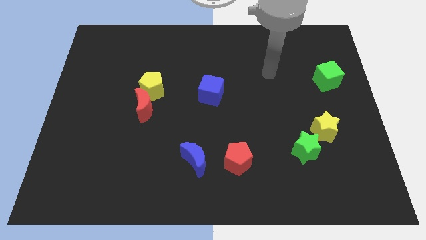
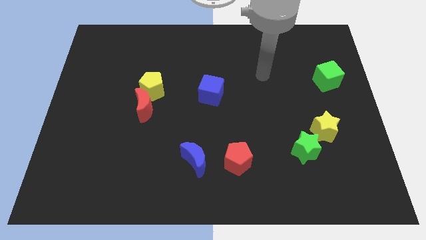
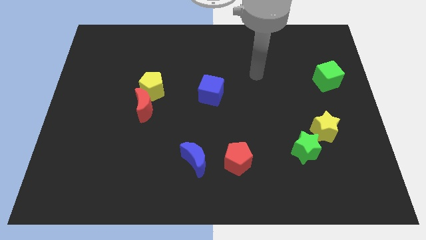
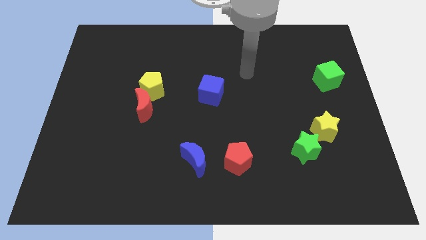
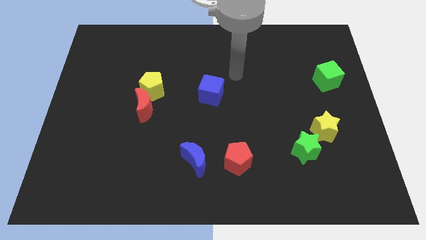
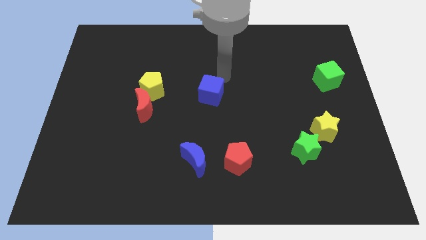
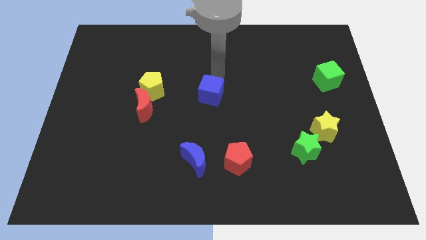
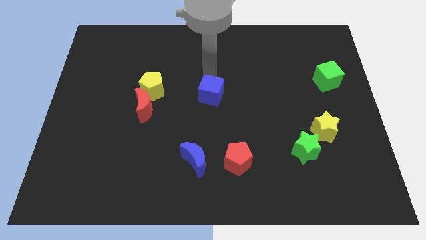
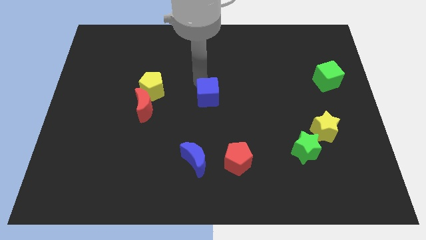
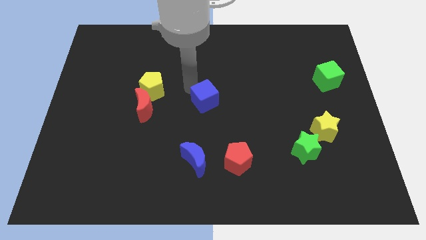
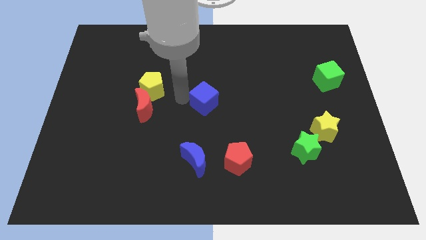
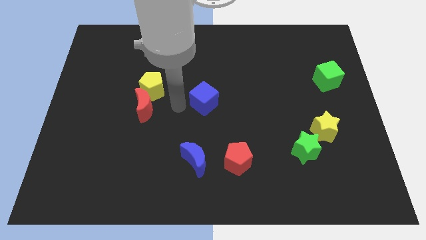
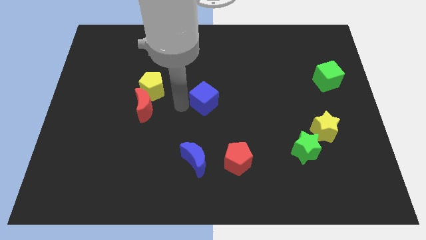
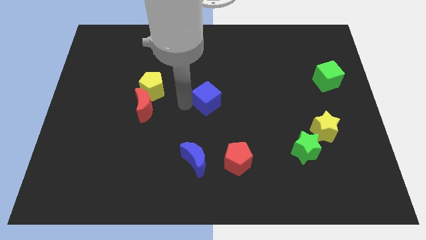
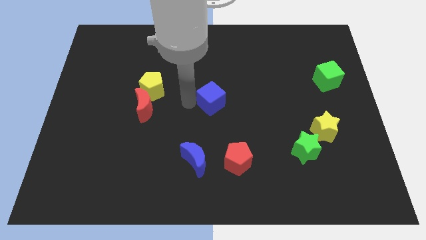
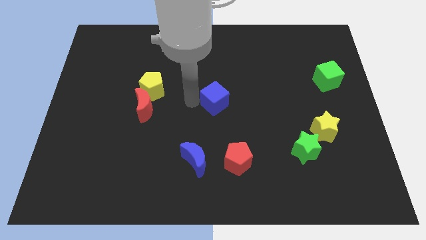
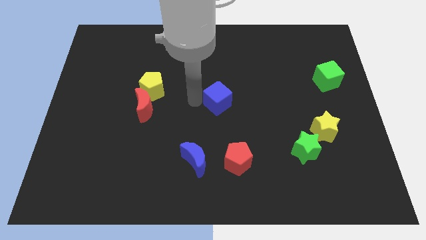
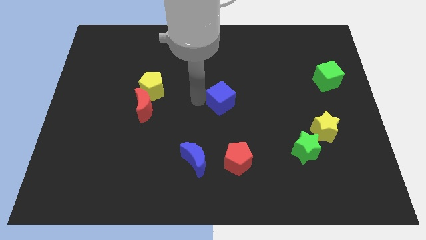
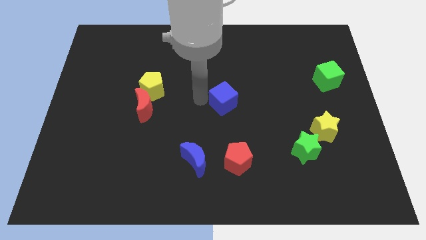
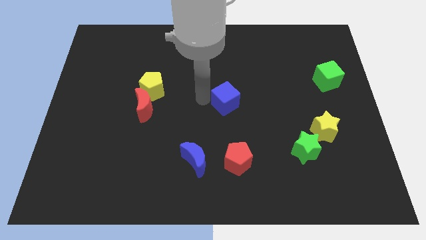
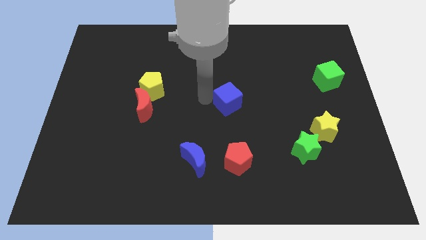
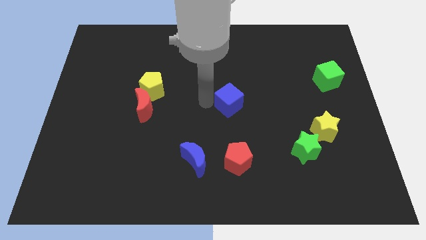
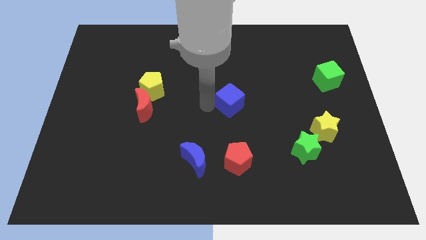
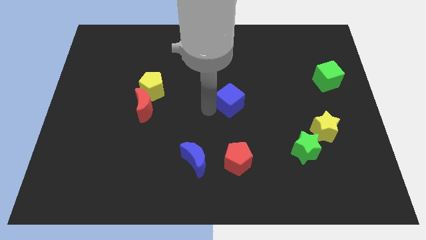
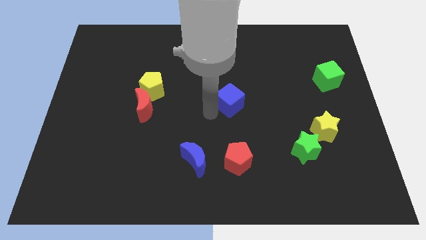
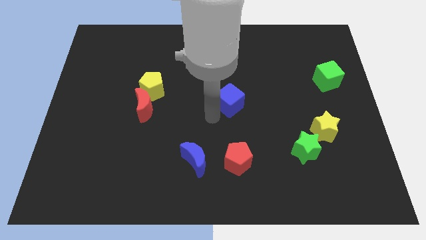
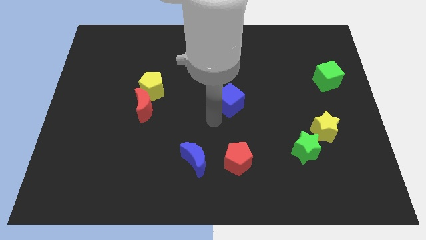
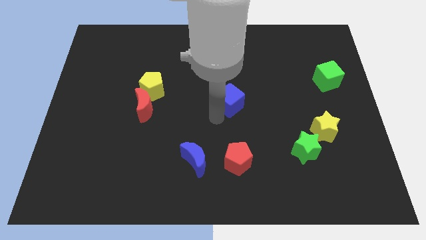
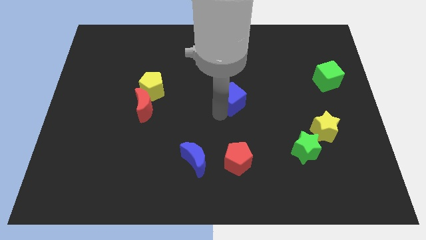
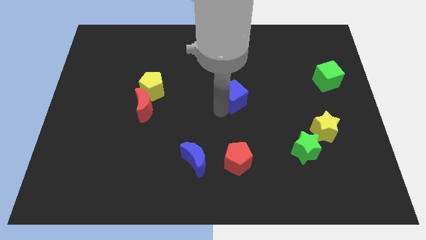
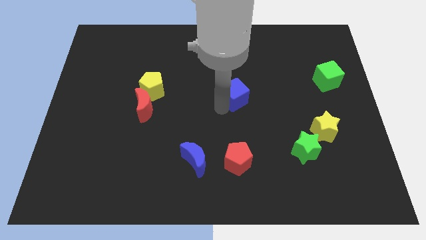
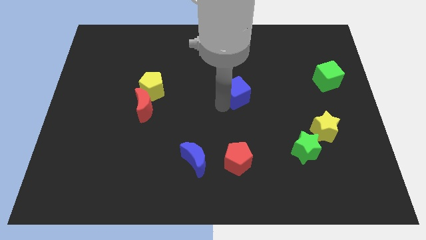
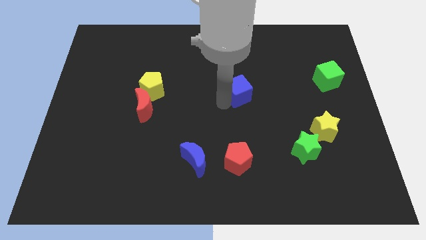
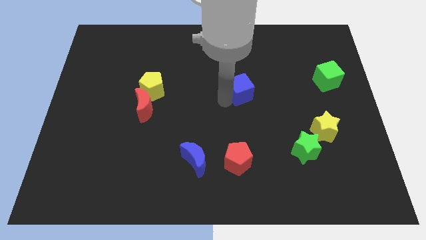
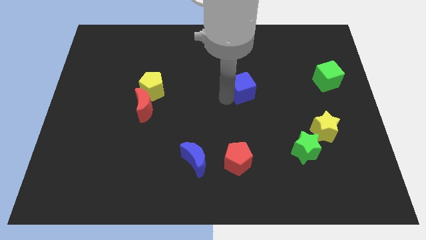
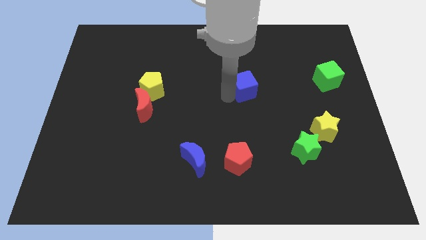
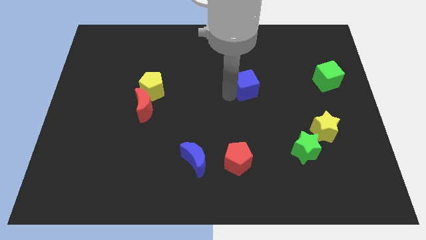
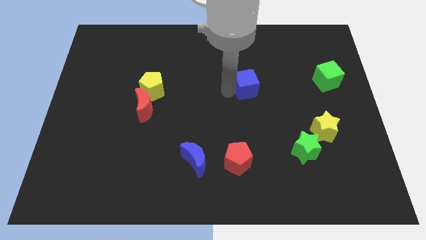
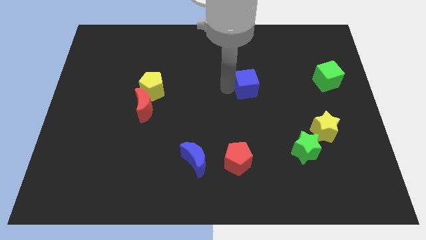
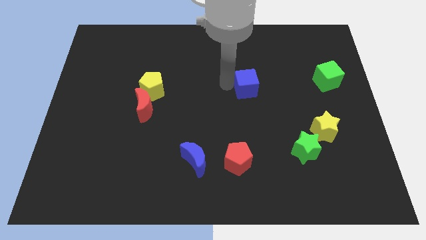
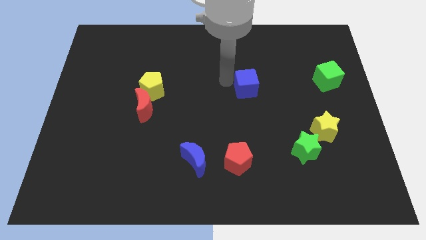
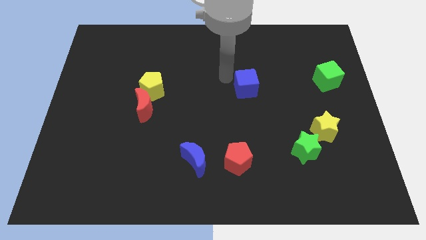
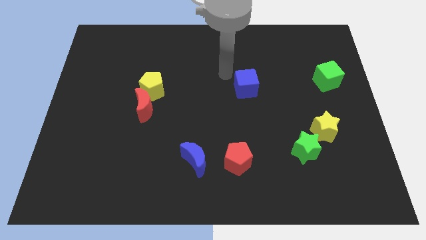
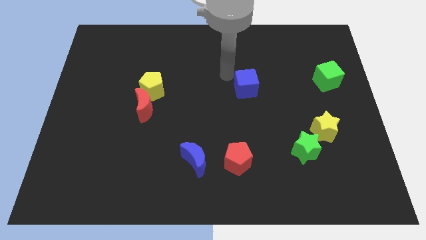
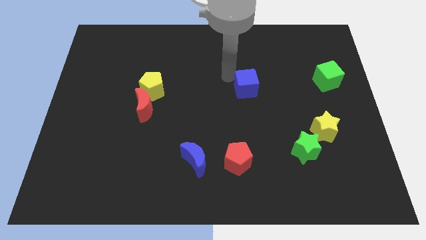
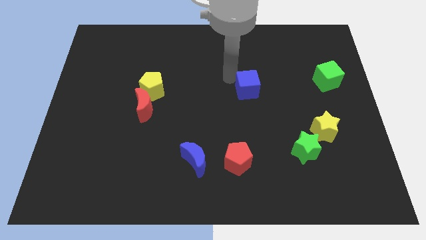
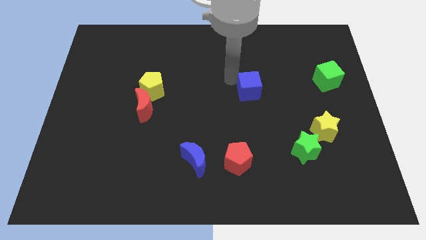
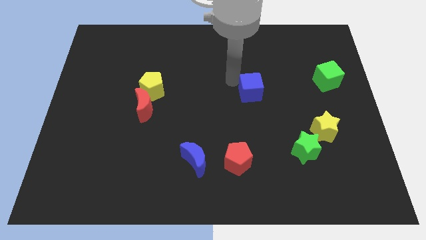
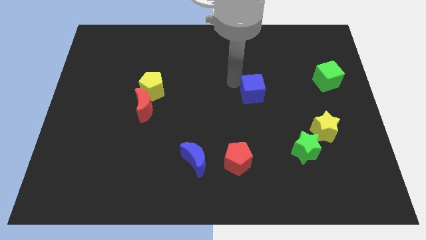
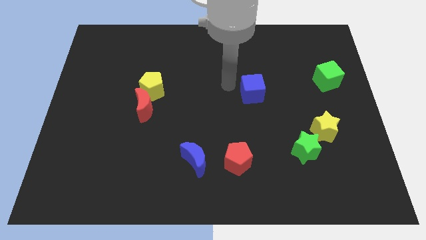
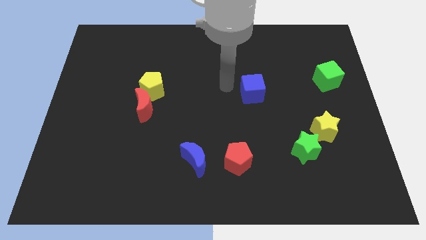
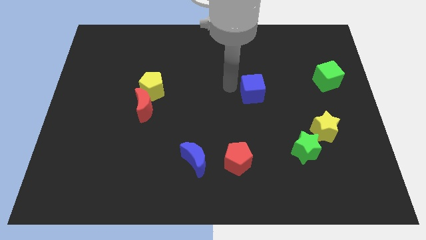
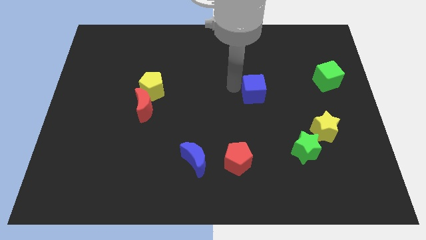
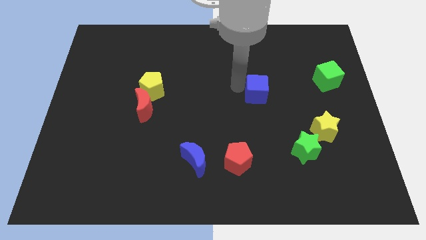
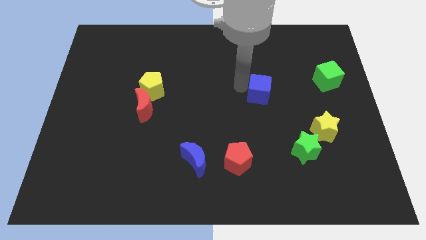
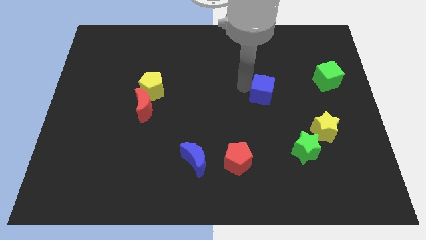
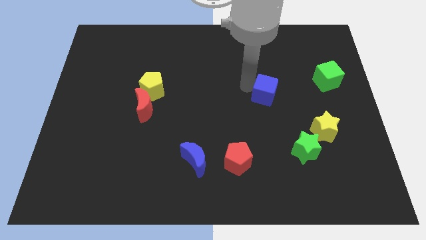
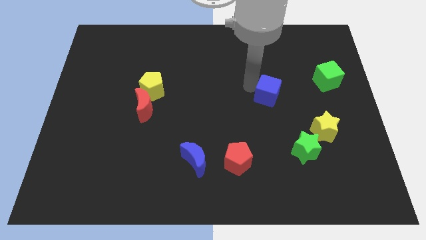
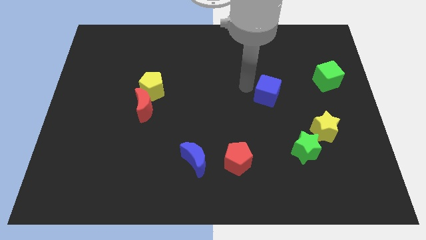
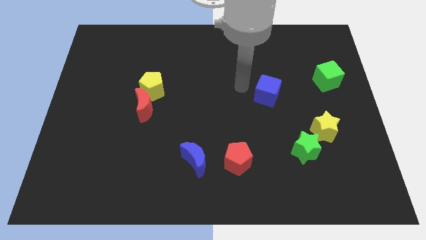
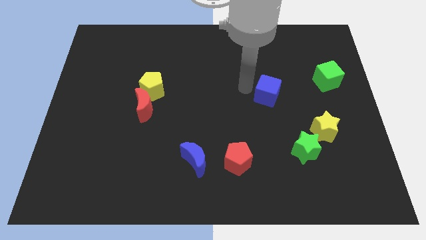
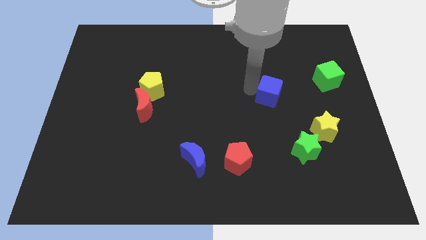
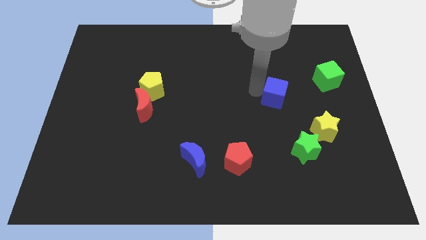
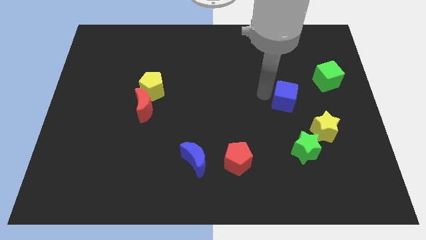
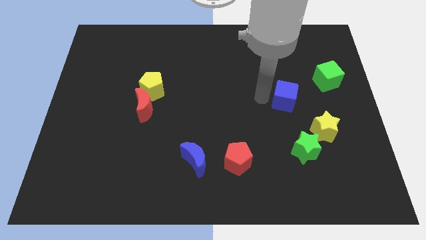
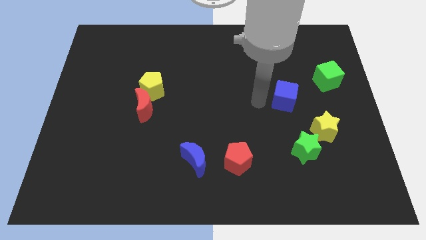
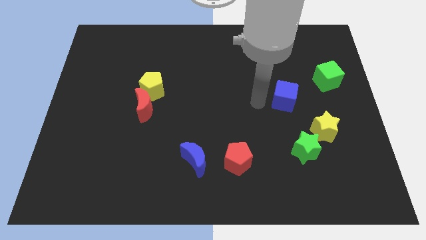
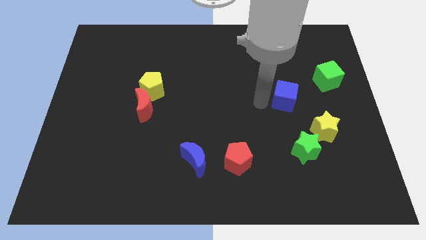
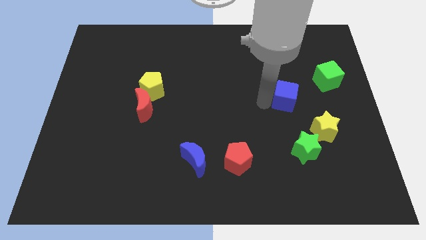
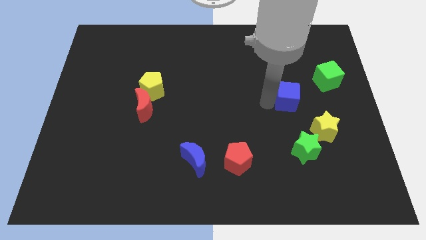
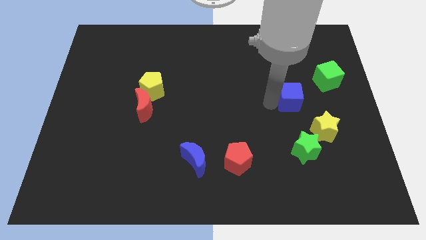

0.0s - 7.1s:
slide the blue cube diagonally down and to the left of the green cube

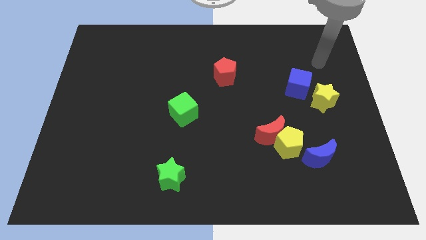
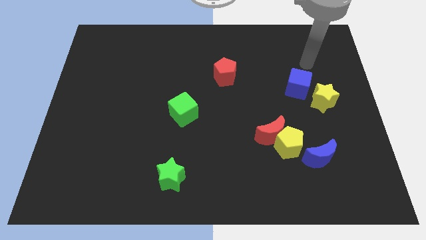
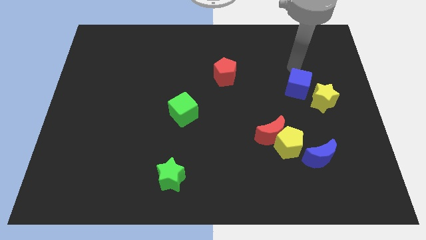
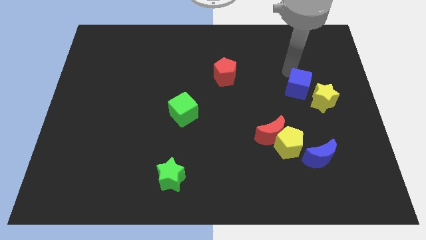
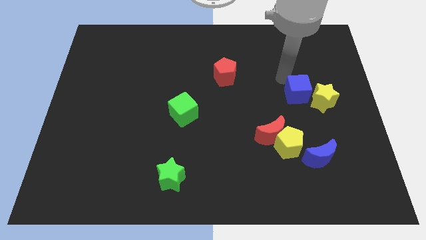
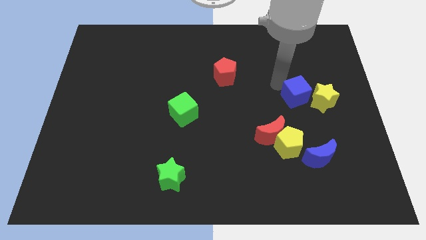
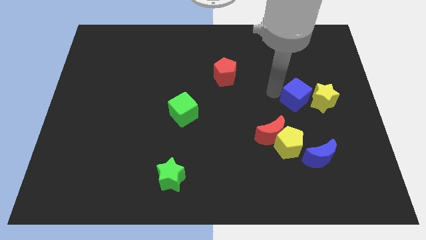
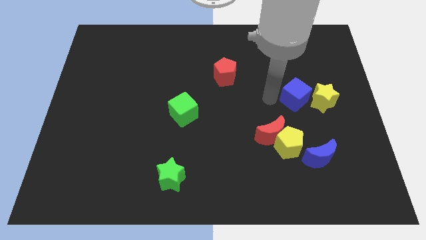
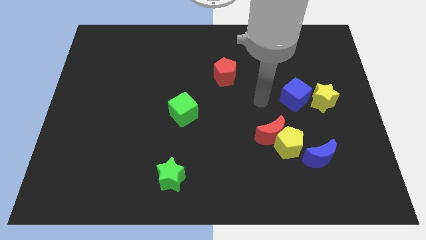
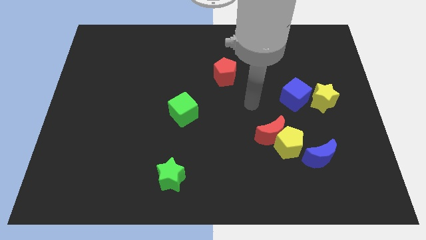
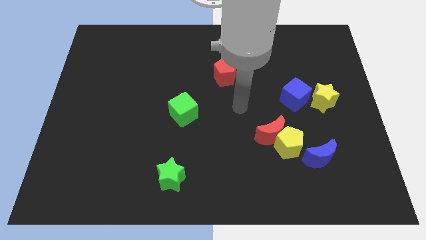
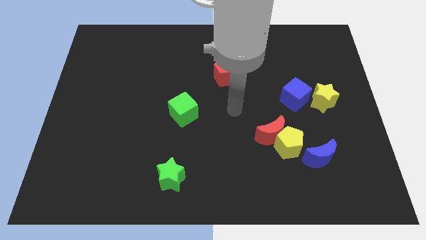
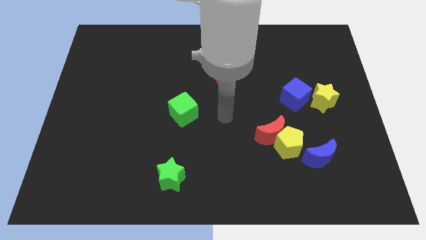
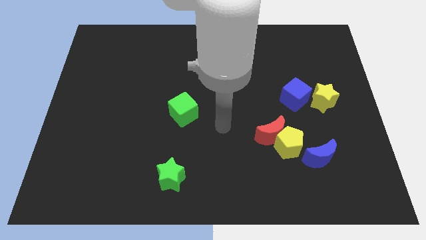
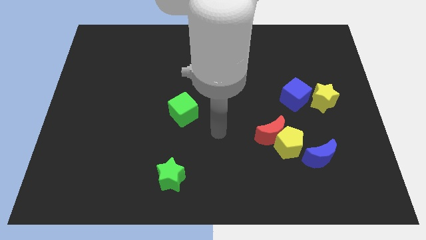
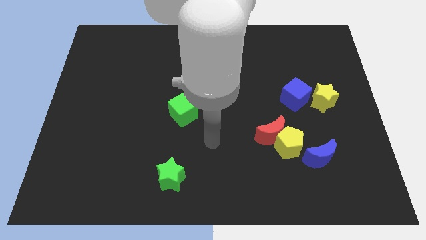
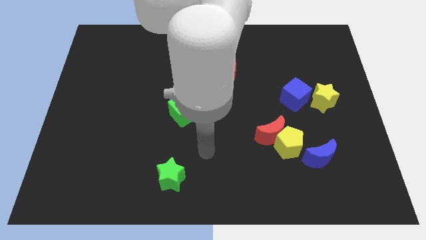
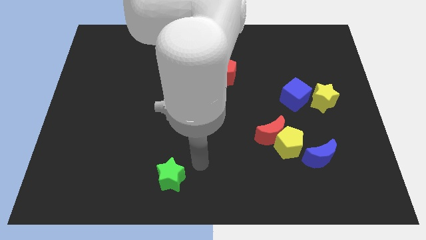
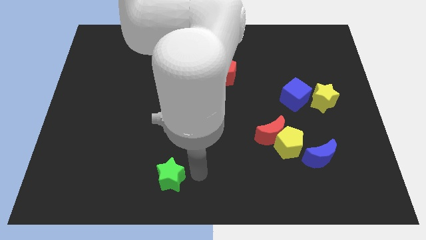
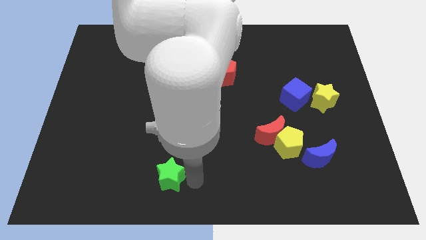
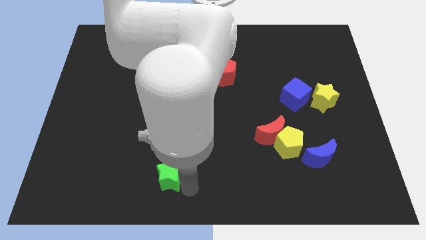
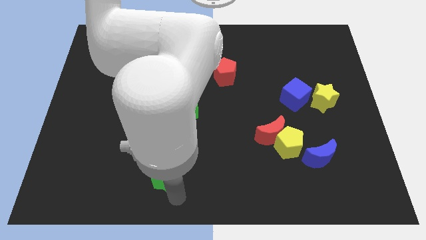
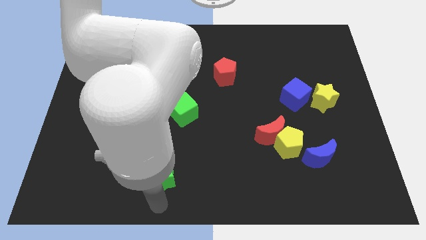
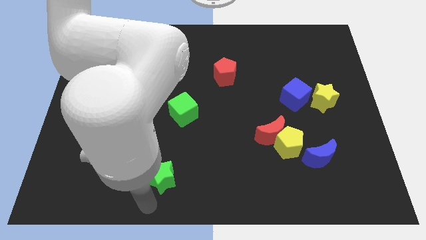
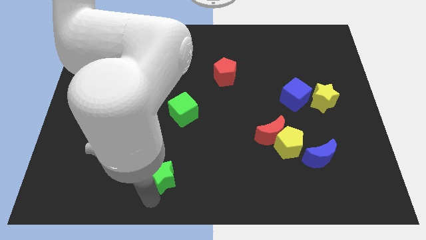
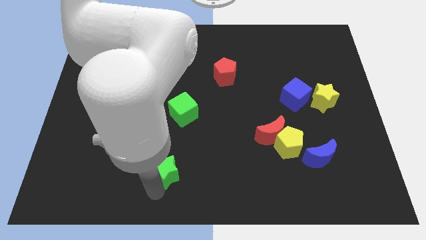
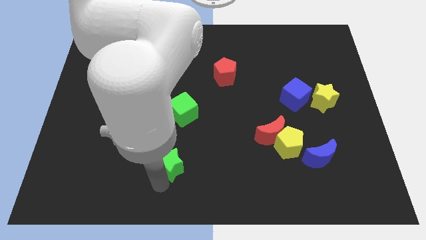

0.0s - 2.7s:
slide the green star to the bottom side of the green cube
